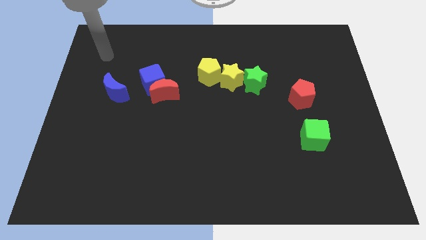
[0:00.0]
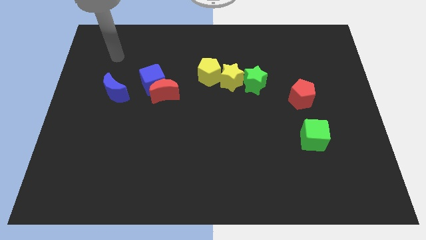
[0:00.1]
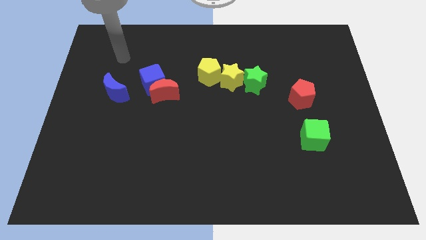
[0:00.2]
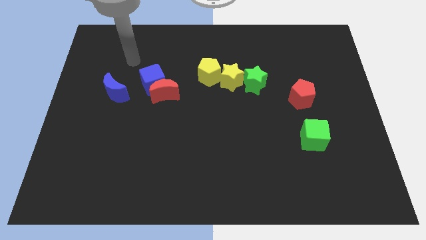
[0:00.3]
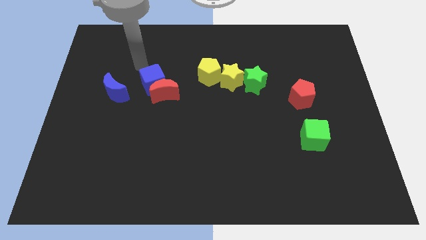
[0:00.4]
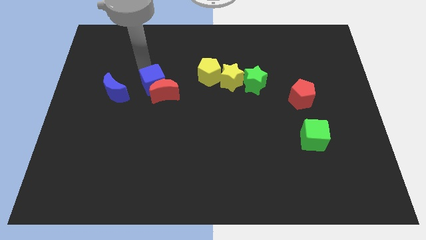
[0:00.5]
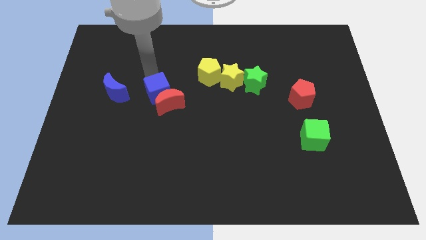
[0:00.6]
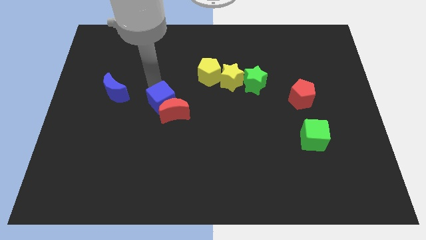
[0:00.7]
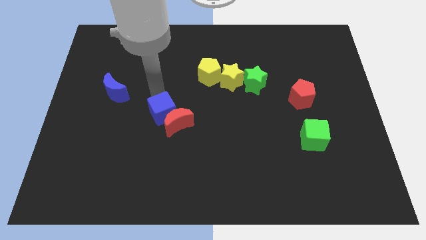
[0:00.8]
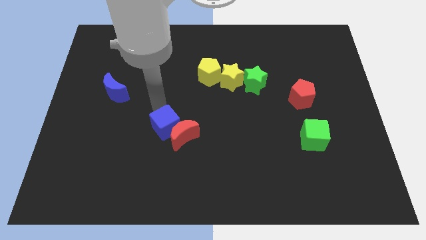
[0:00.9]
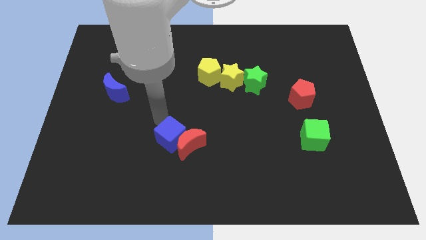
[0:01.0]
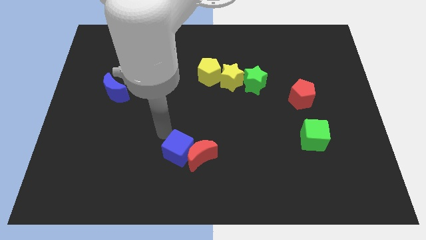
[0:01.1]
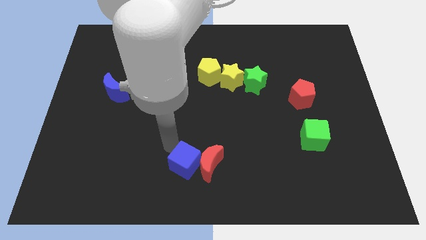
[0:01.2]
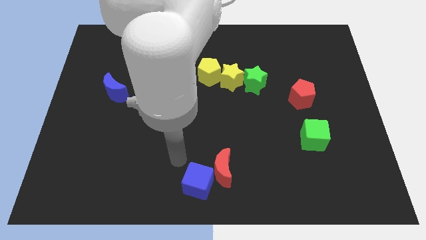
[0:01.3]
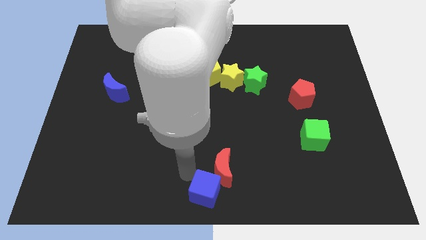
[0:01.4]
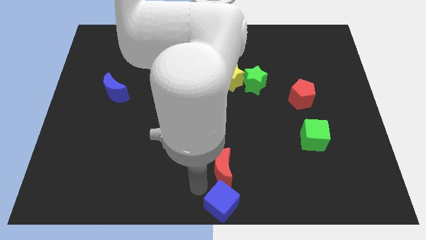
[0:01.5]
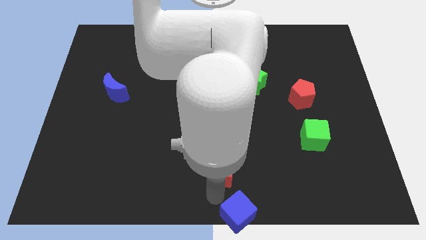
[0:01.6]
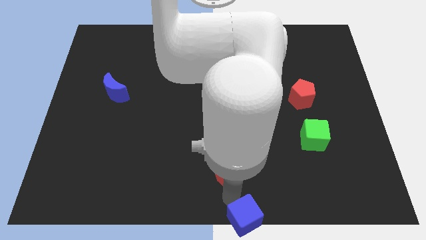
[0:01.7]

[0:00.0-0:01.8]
separate the red moon from the blue cube

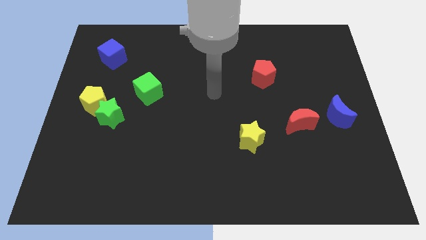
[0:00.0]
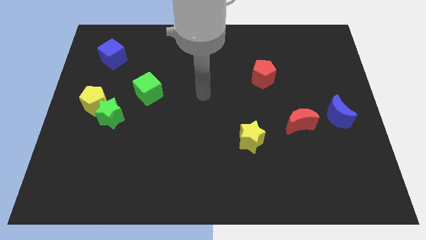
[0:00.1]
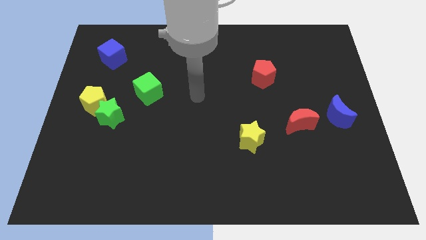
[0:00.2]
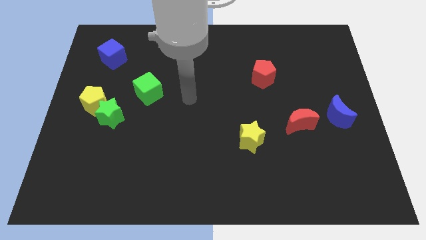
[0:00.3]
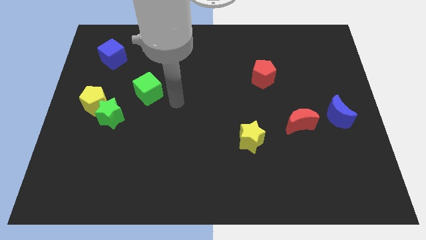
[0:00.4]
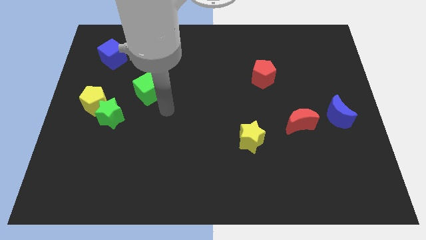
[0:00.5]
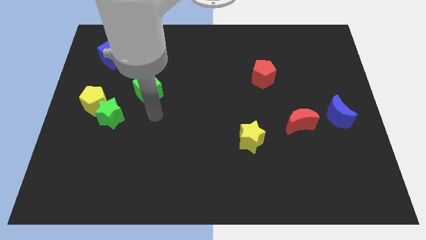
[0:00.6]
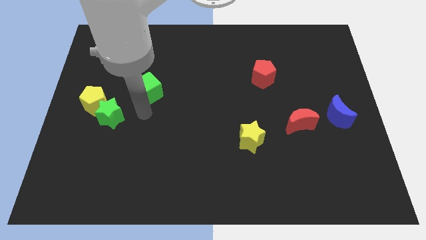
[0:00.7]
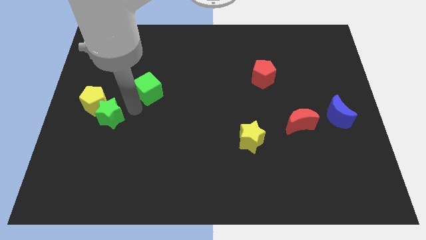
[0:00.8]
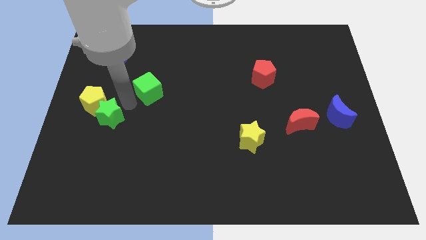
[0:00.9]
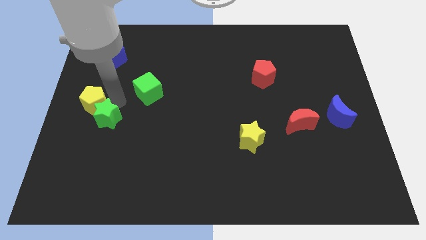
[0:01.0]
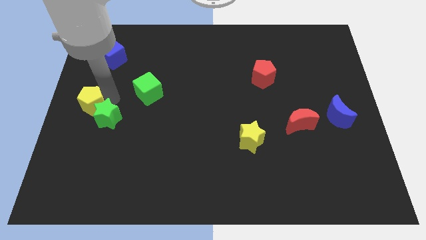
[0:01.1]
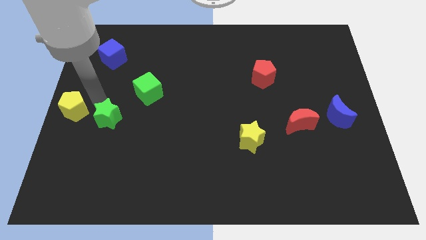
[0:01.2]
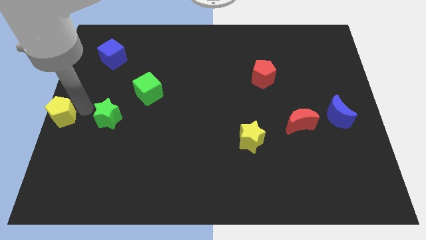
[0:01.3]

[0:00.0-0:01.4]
pull the green star apart from the yellow pentagon

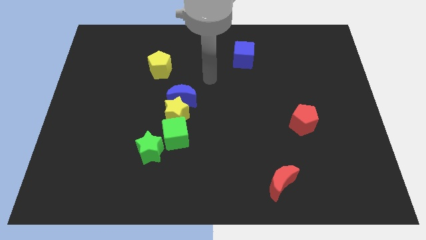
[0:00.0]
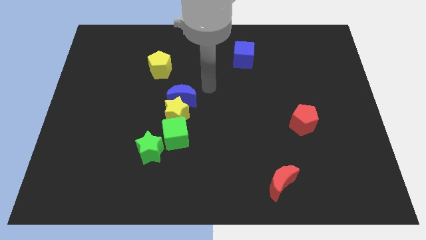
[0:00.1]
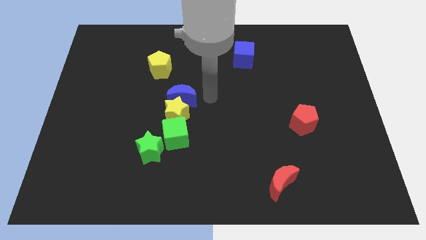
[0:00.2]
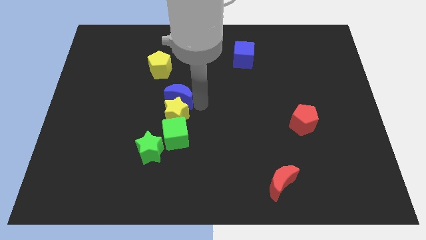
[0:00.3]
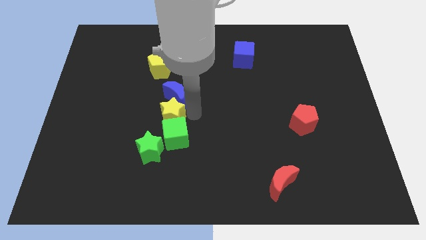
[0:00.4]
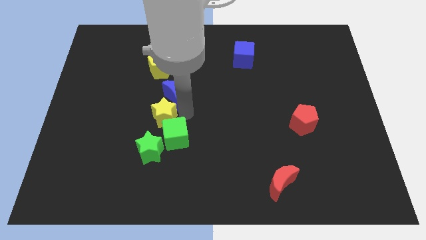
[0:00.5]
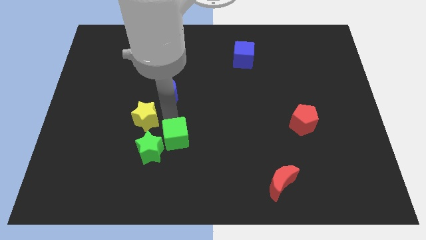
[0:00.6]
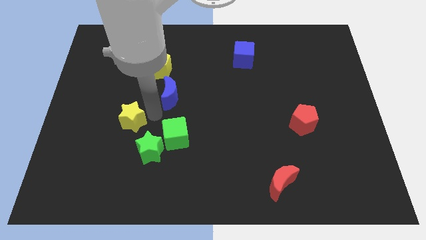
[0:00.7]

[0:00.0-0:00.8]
move the blue moon away from the yellow star

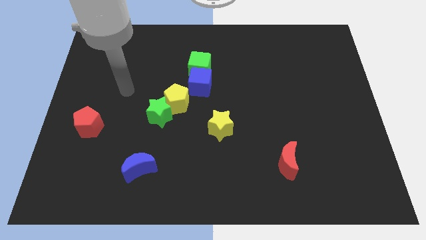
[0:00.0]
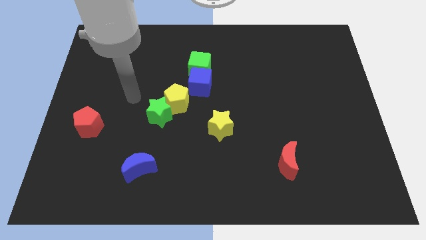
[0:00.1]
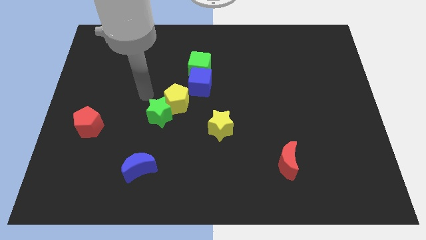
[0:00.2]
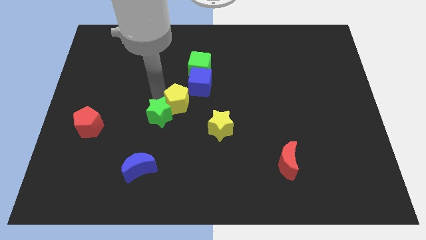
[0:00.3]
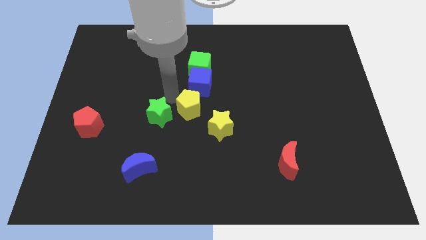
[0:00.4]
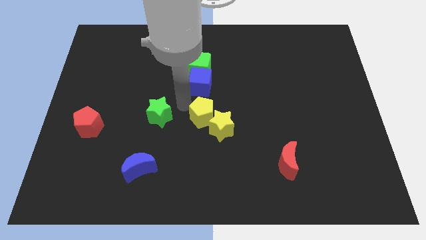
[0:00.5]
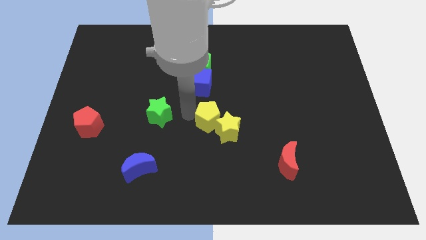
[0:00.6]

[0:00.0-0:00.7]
move the green star away from the yellow pentagon

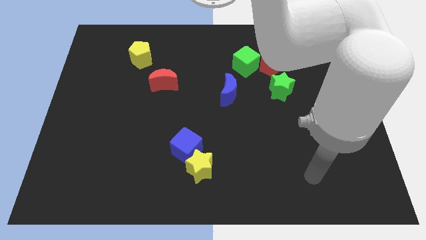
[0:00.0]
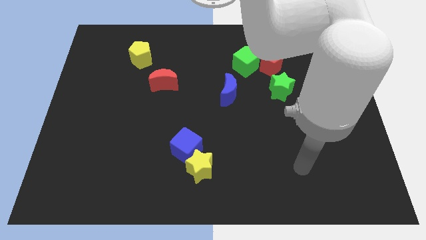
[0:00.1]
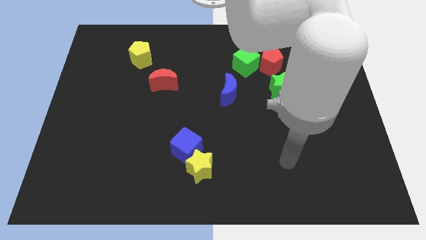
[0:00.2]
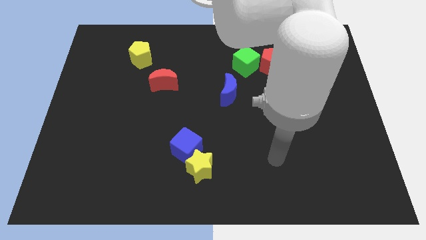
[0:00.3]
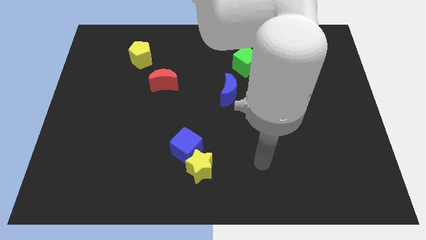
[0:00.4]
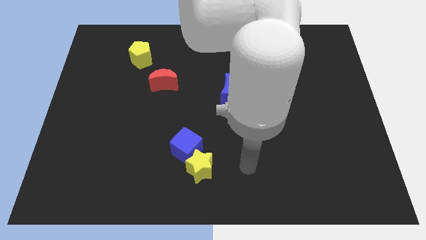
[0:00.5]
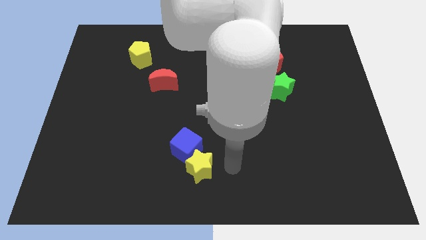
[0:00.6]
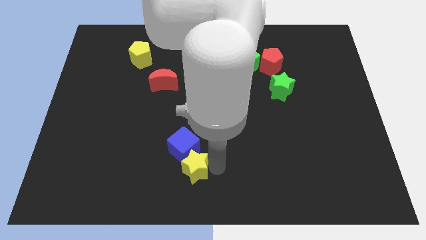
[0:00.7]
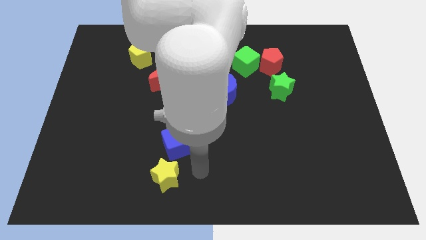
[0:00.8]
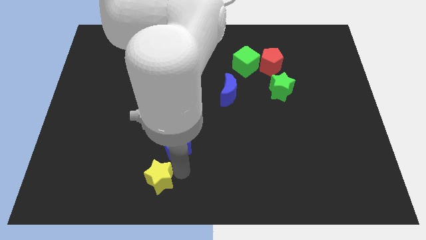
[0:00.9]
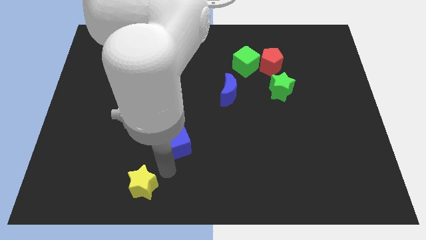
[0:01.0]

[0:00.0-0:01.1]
pull the blue cube apart from the yellow star

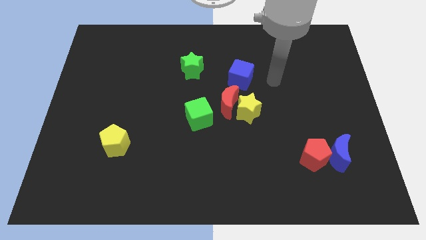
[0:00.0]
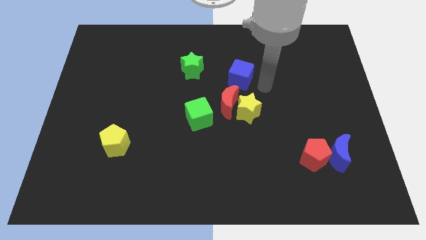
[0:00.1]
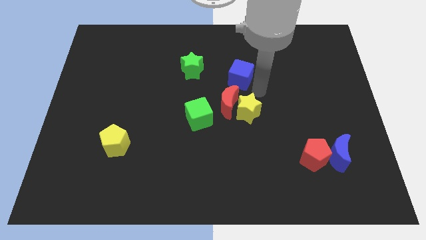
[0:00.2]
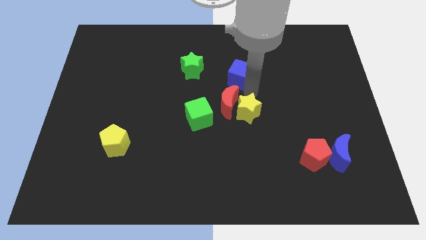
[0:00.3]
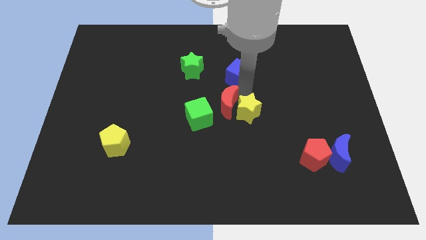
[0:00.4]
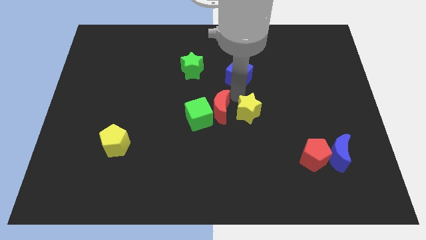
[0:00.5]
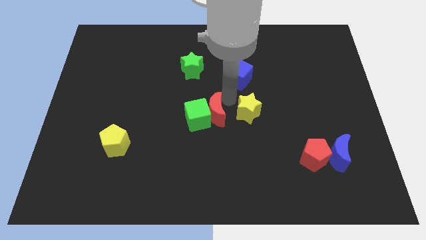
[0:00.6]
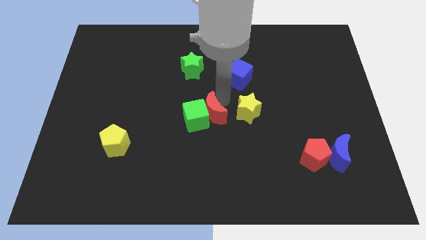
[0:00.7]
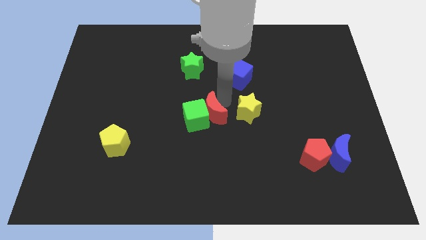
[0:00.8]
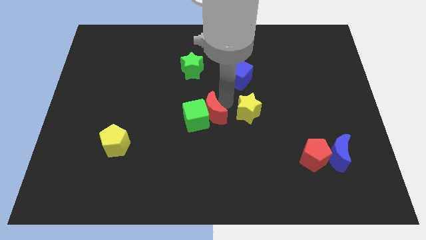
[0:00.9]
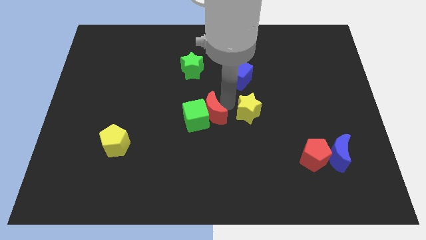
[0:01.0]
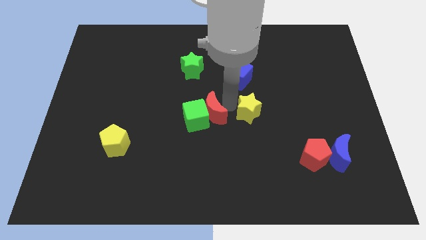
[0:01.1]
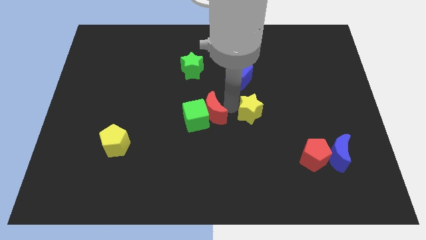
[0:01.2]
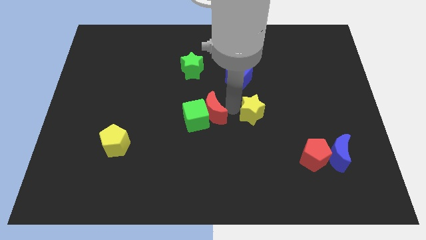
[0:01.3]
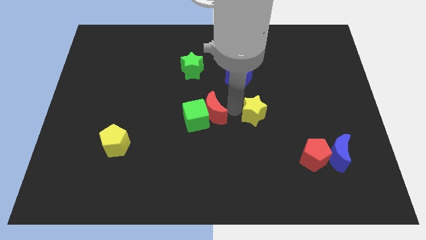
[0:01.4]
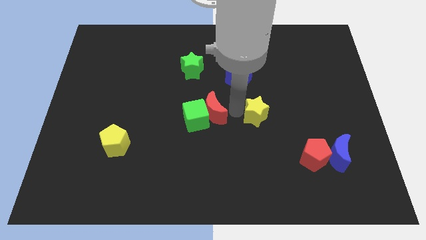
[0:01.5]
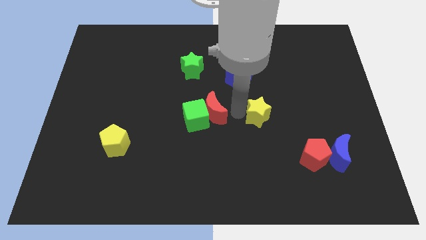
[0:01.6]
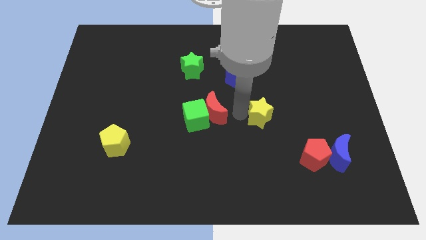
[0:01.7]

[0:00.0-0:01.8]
separate the yellow star from the red moon

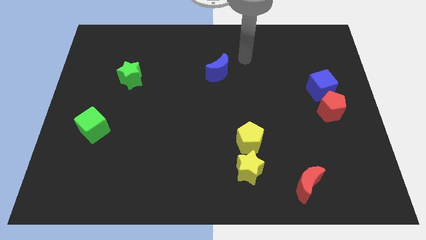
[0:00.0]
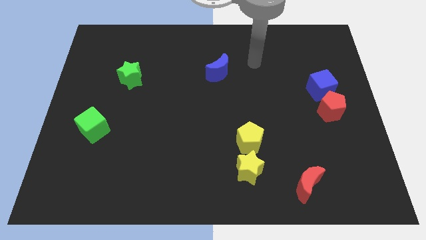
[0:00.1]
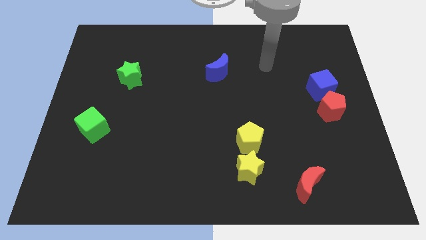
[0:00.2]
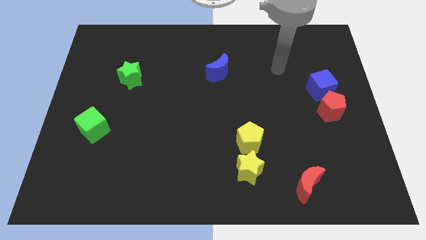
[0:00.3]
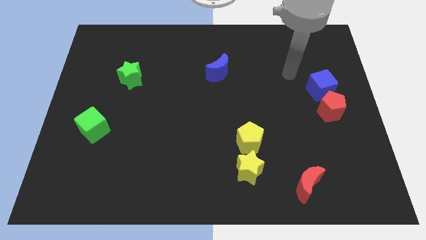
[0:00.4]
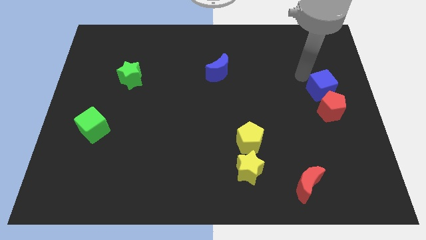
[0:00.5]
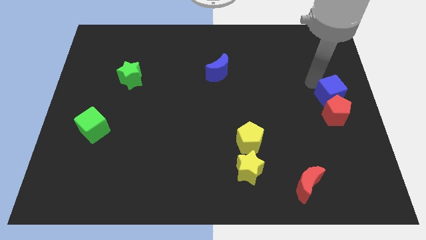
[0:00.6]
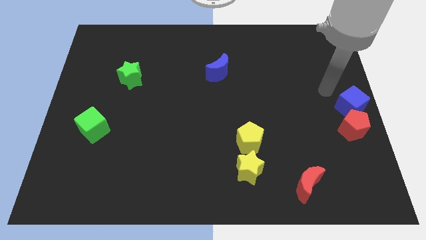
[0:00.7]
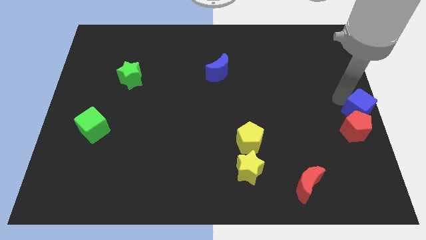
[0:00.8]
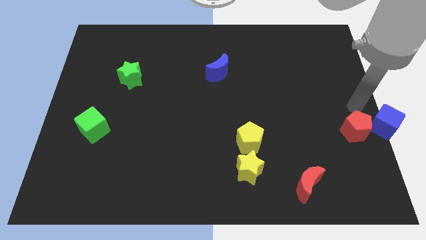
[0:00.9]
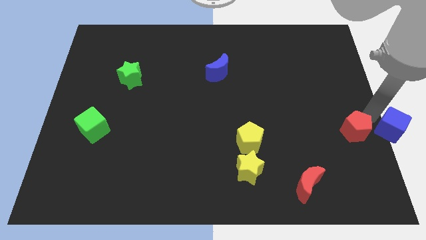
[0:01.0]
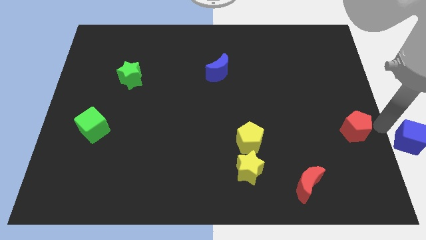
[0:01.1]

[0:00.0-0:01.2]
separate the red pentagon from the blue cube

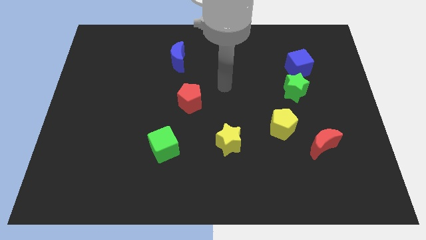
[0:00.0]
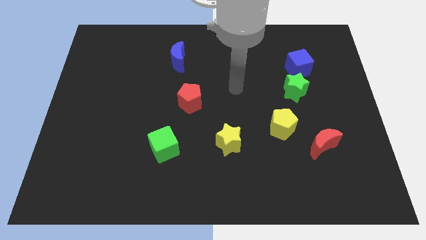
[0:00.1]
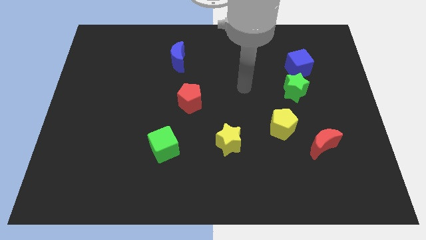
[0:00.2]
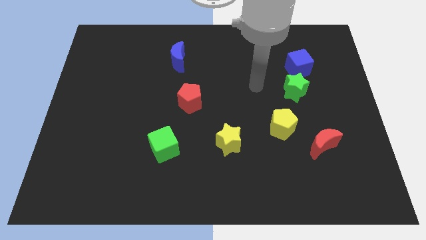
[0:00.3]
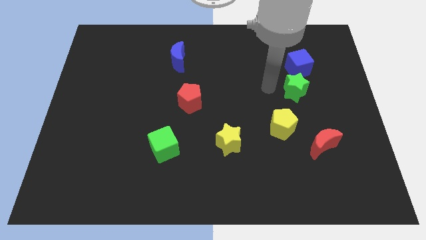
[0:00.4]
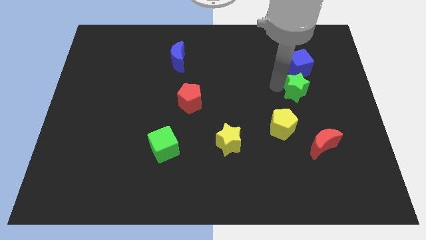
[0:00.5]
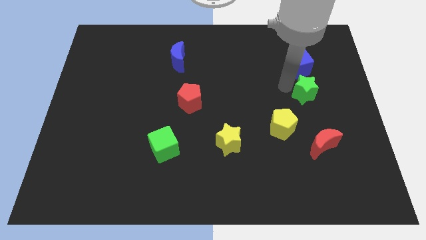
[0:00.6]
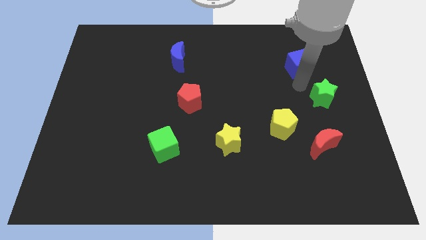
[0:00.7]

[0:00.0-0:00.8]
pull the blue cube apart from the green star
